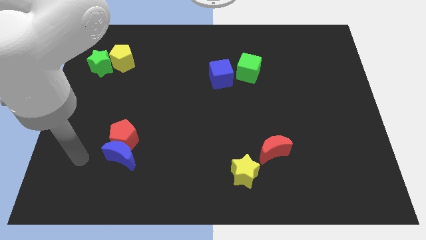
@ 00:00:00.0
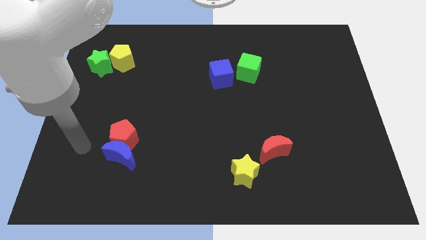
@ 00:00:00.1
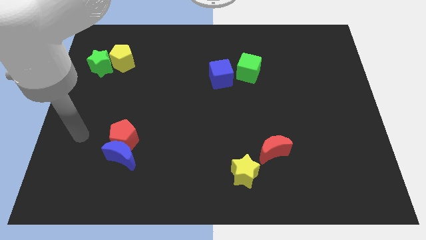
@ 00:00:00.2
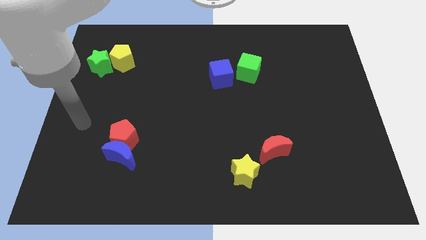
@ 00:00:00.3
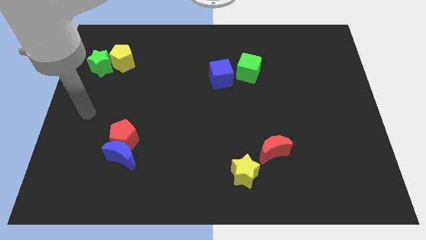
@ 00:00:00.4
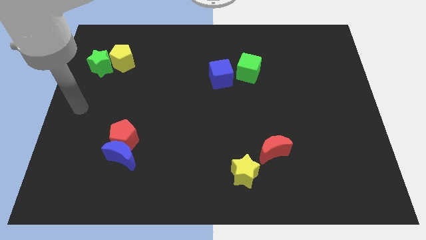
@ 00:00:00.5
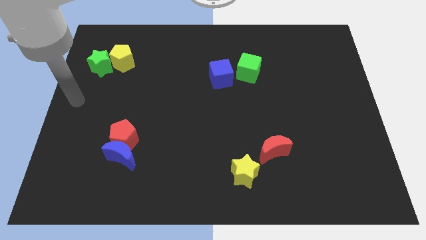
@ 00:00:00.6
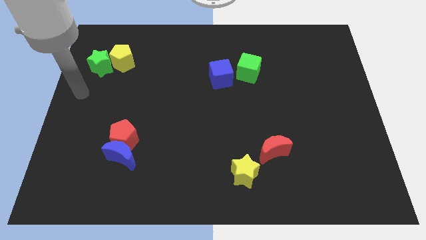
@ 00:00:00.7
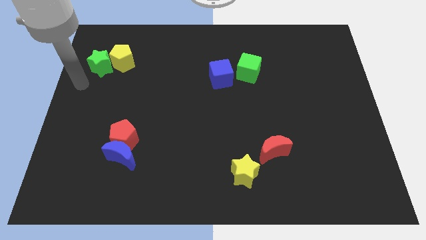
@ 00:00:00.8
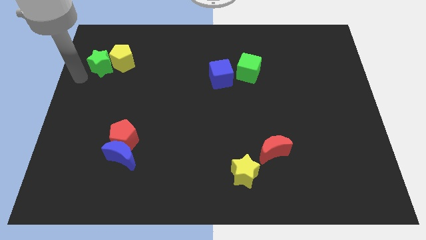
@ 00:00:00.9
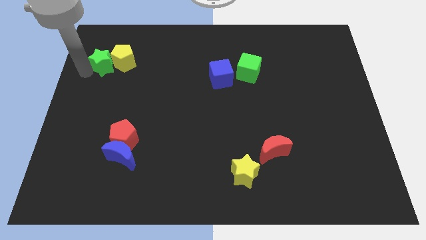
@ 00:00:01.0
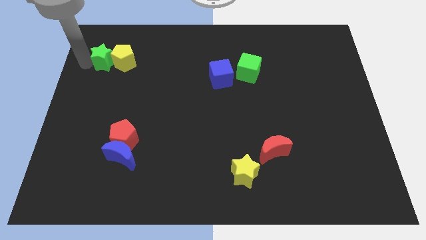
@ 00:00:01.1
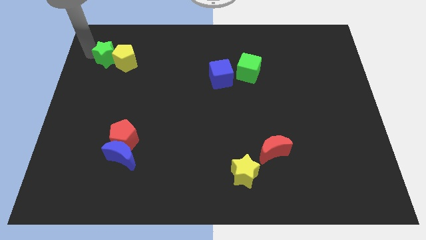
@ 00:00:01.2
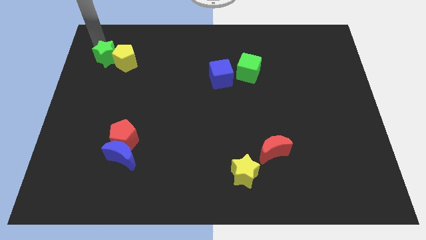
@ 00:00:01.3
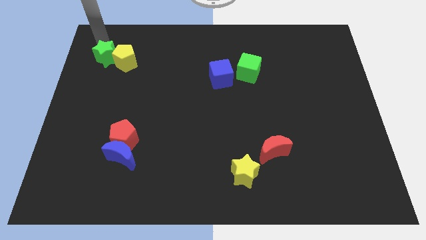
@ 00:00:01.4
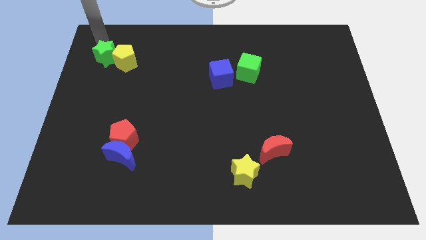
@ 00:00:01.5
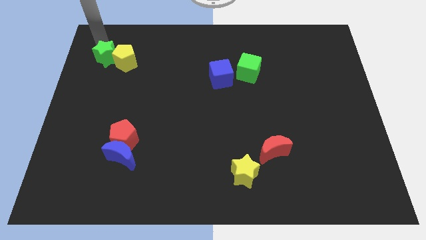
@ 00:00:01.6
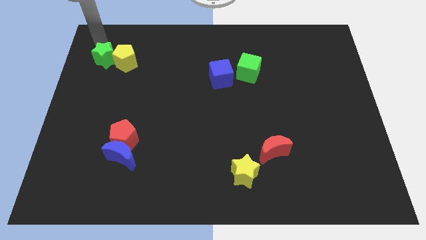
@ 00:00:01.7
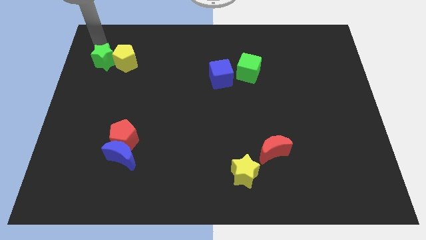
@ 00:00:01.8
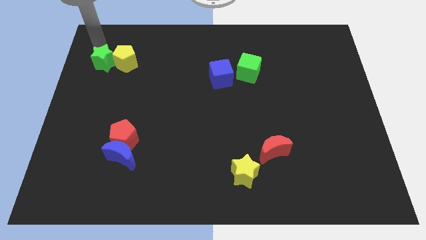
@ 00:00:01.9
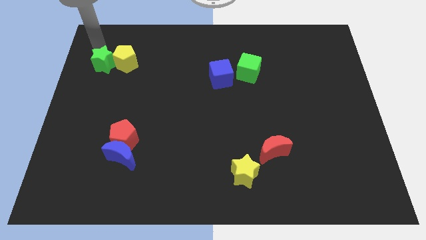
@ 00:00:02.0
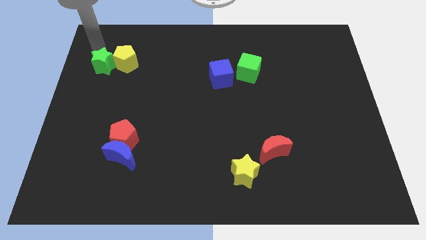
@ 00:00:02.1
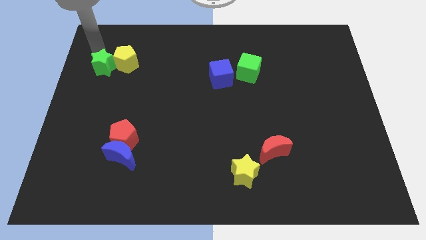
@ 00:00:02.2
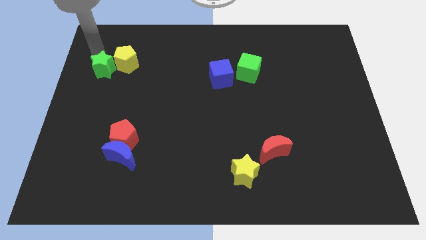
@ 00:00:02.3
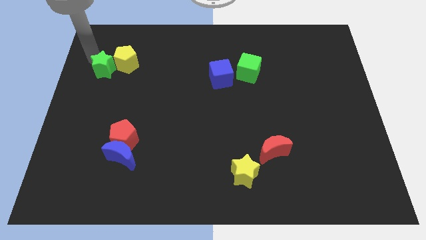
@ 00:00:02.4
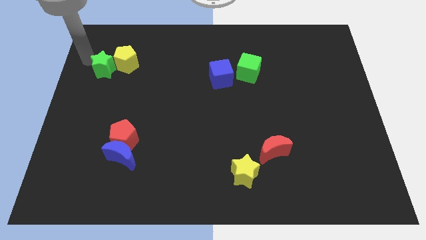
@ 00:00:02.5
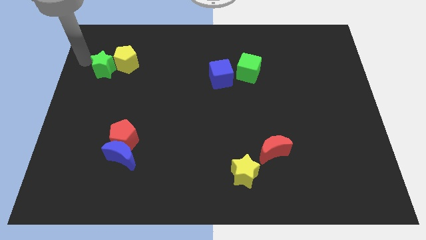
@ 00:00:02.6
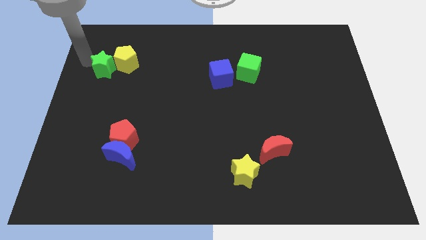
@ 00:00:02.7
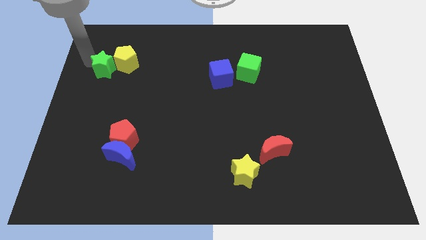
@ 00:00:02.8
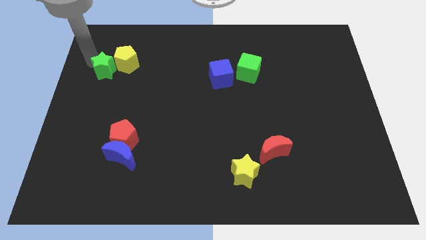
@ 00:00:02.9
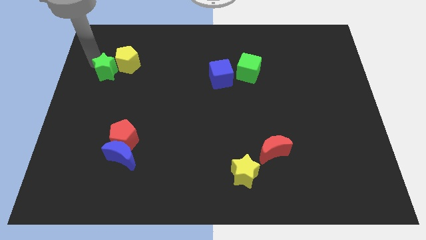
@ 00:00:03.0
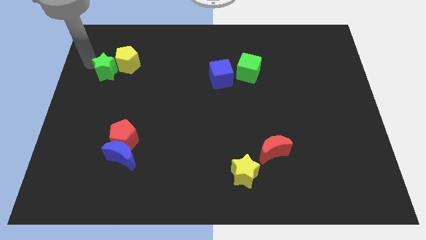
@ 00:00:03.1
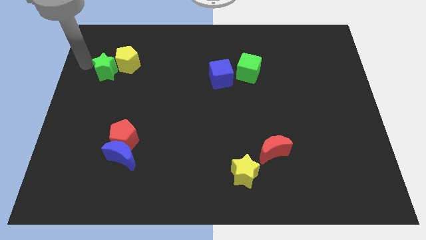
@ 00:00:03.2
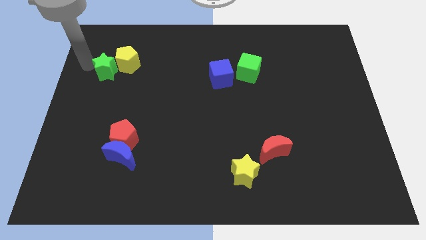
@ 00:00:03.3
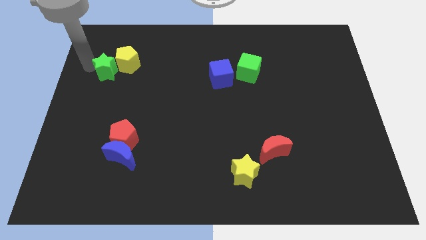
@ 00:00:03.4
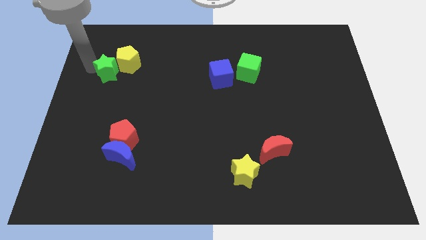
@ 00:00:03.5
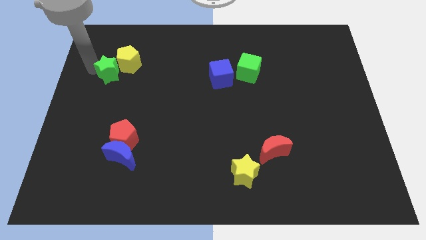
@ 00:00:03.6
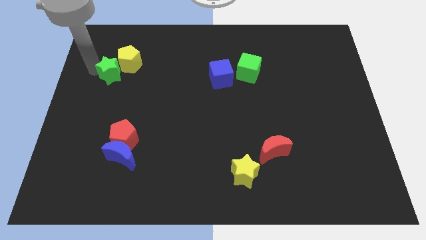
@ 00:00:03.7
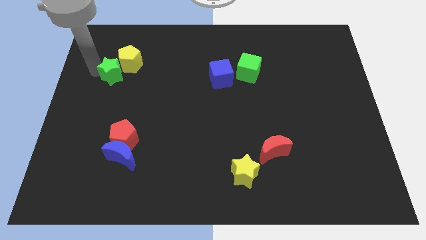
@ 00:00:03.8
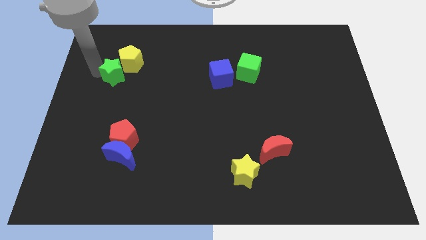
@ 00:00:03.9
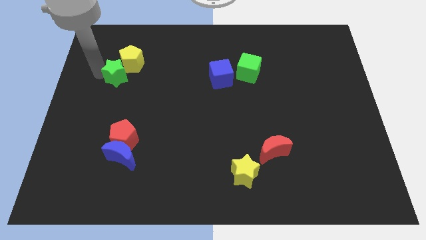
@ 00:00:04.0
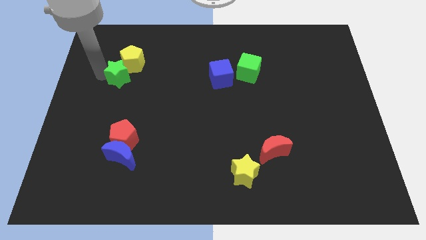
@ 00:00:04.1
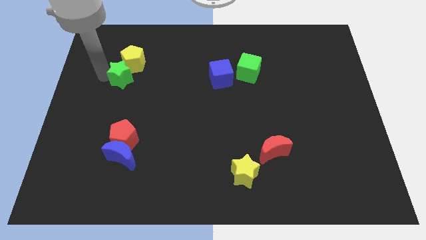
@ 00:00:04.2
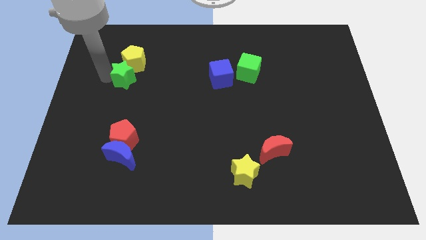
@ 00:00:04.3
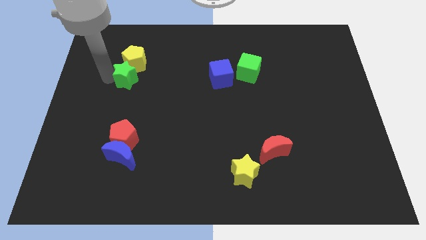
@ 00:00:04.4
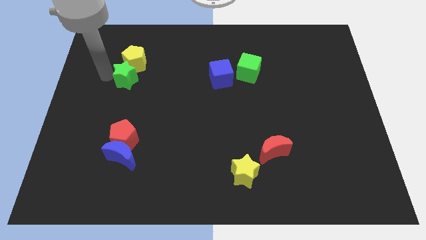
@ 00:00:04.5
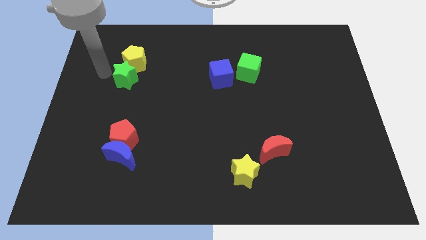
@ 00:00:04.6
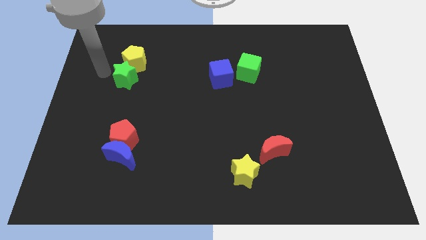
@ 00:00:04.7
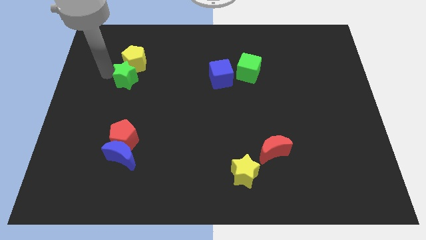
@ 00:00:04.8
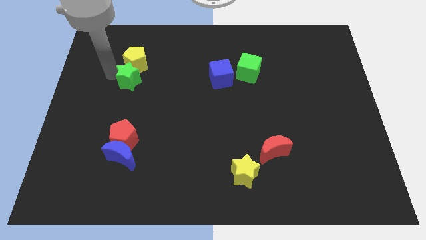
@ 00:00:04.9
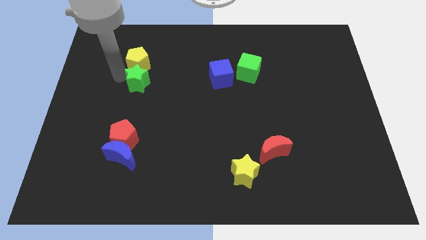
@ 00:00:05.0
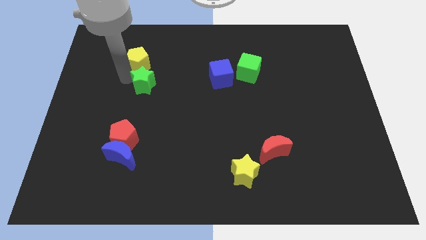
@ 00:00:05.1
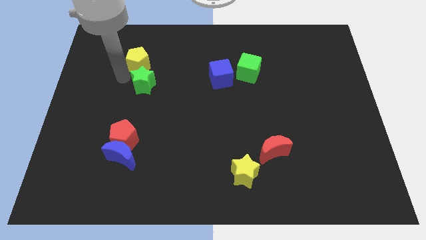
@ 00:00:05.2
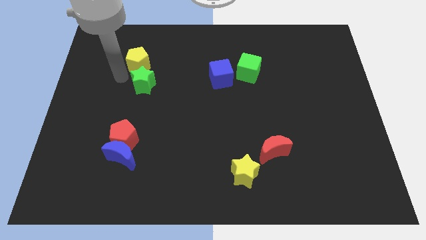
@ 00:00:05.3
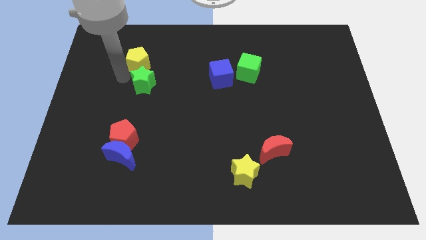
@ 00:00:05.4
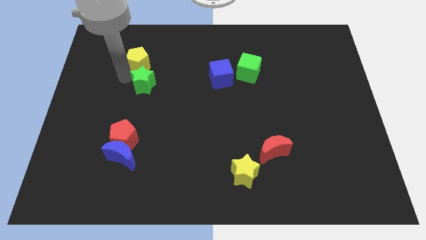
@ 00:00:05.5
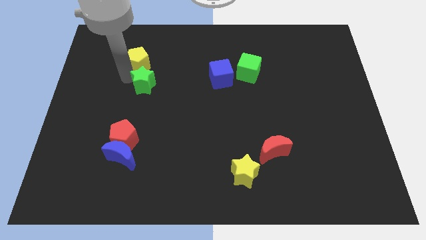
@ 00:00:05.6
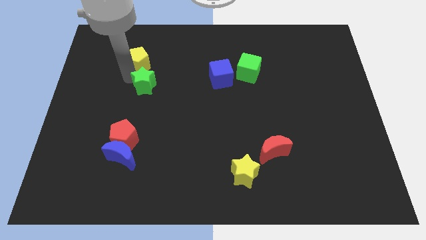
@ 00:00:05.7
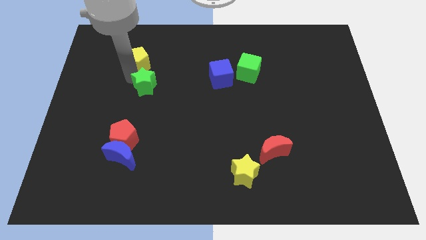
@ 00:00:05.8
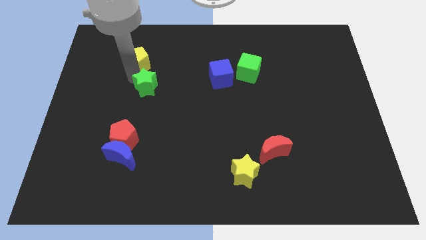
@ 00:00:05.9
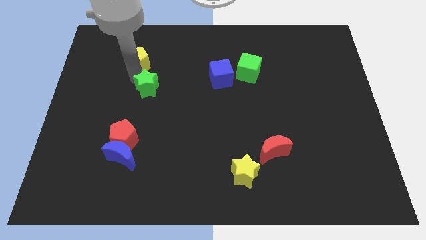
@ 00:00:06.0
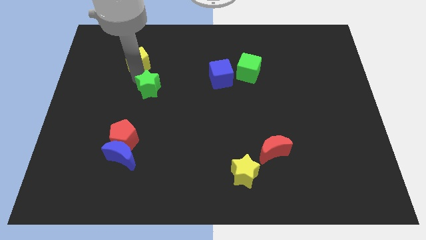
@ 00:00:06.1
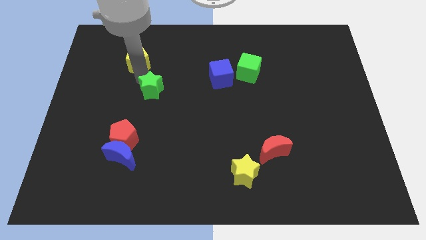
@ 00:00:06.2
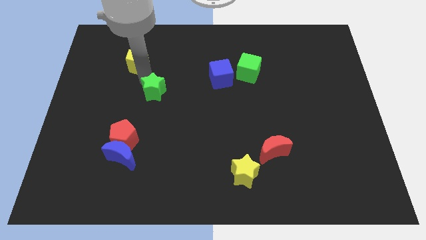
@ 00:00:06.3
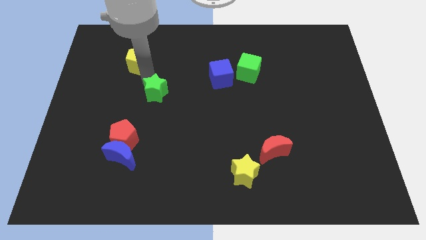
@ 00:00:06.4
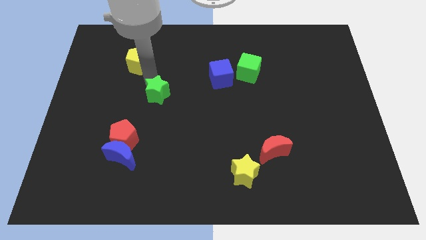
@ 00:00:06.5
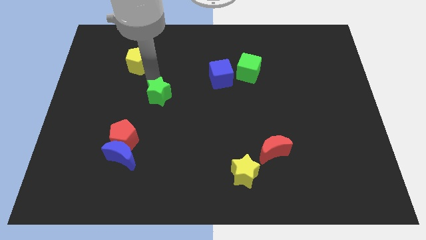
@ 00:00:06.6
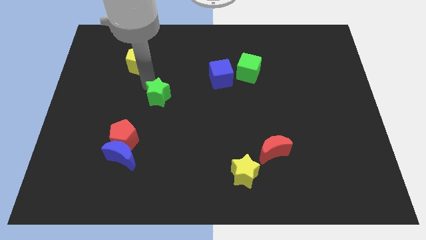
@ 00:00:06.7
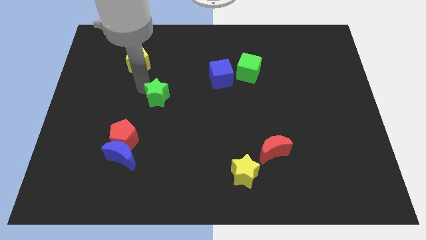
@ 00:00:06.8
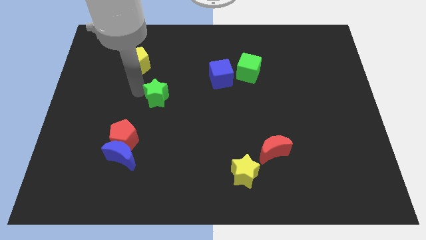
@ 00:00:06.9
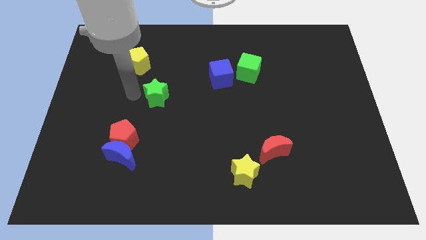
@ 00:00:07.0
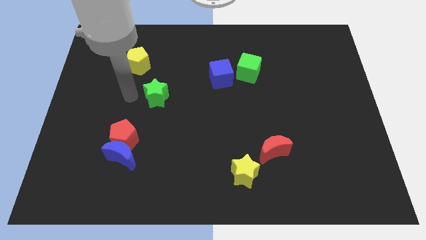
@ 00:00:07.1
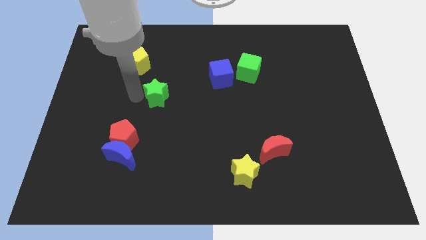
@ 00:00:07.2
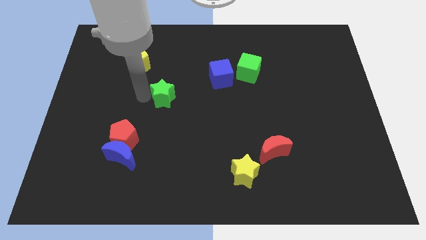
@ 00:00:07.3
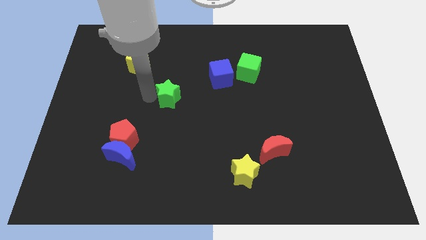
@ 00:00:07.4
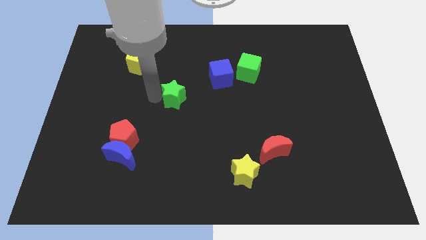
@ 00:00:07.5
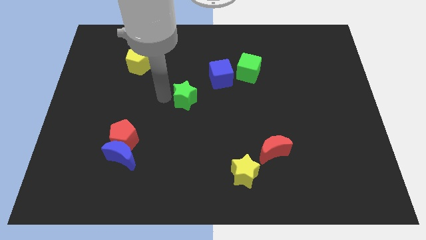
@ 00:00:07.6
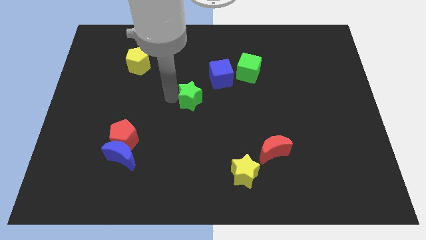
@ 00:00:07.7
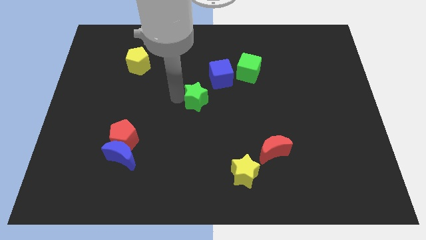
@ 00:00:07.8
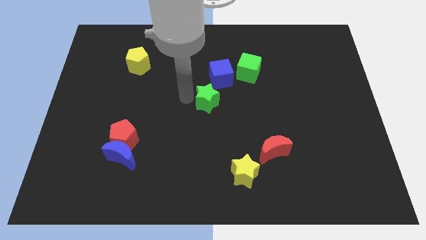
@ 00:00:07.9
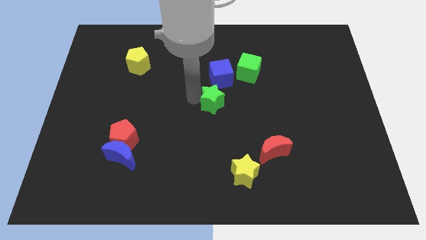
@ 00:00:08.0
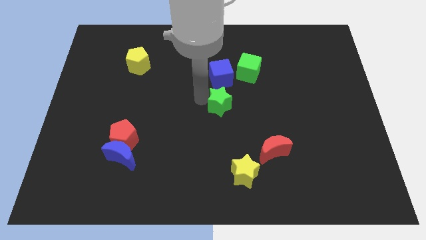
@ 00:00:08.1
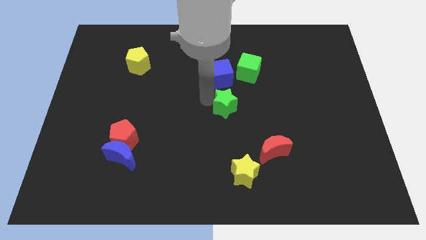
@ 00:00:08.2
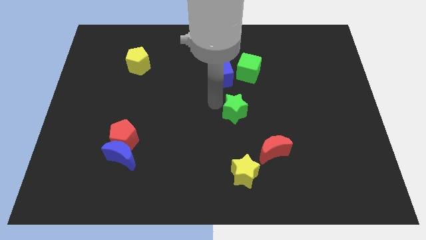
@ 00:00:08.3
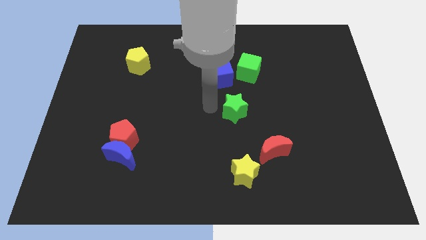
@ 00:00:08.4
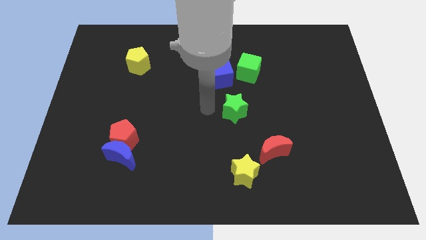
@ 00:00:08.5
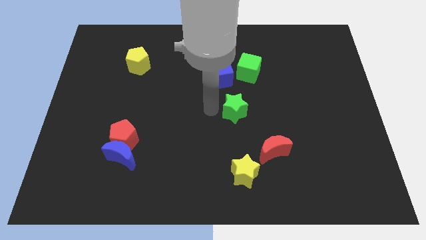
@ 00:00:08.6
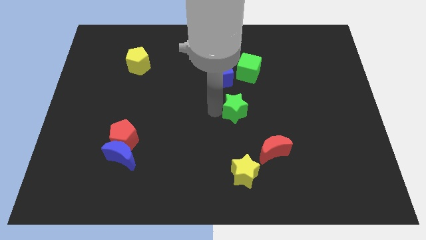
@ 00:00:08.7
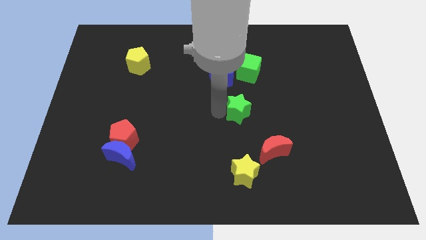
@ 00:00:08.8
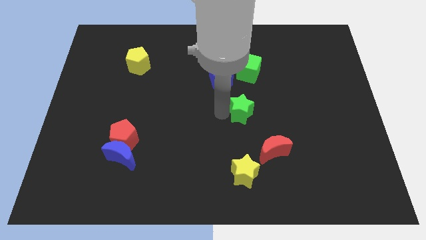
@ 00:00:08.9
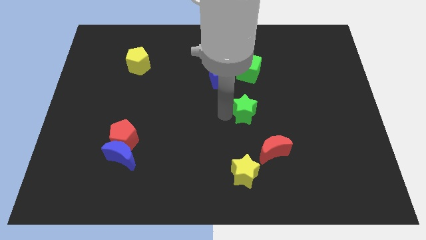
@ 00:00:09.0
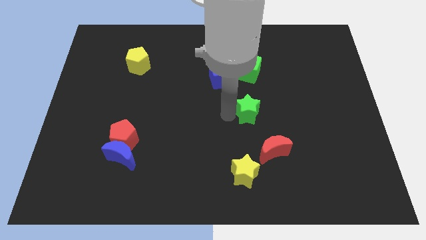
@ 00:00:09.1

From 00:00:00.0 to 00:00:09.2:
move the green star to the top side of the red moon
